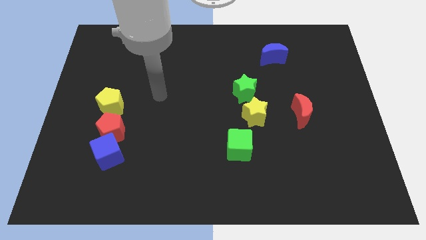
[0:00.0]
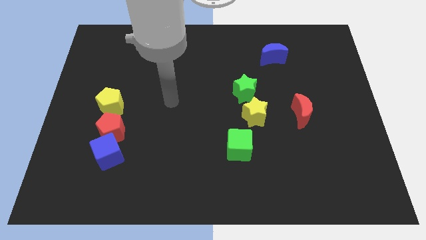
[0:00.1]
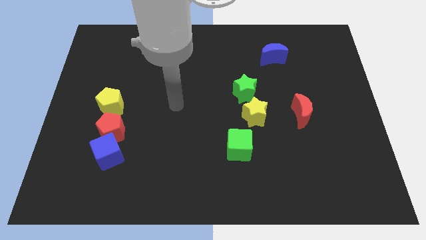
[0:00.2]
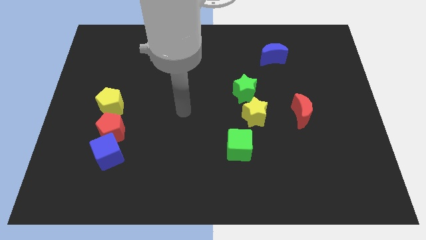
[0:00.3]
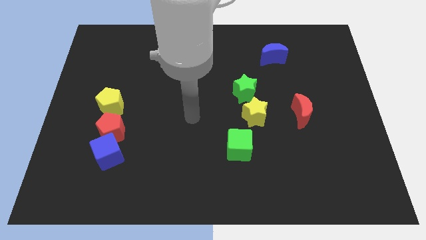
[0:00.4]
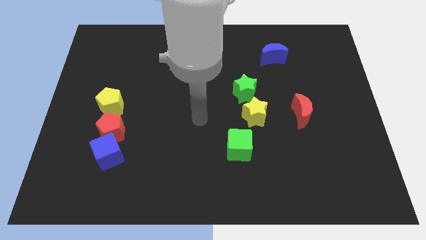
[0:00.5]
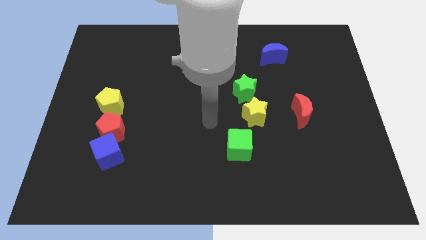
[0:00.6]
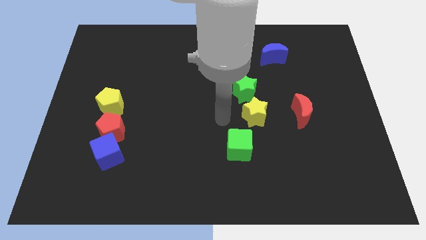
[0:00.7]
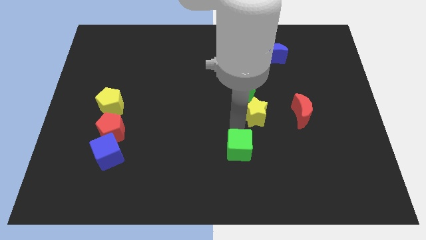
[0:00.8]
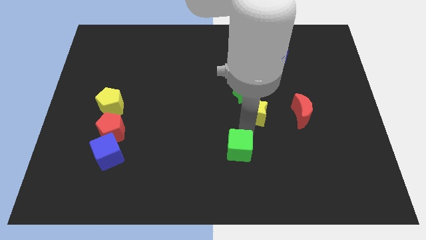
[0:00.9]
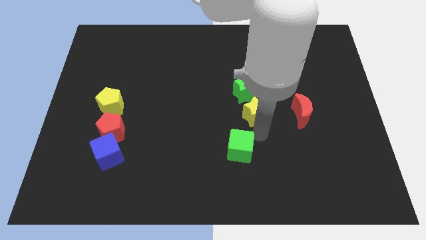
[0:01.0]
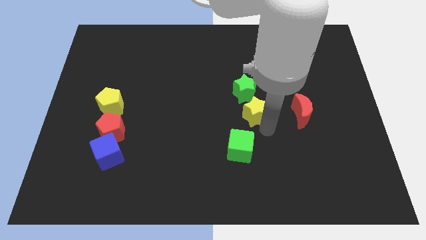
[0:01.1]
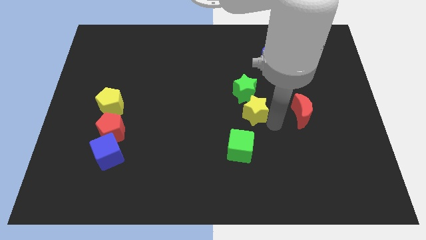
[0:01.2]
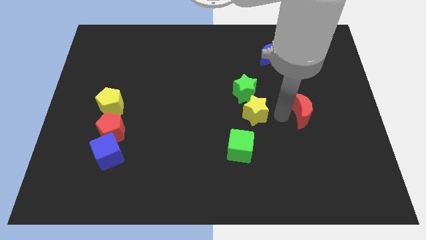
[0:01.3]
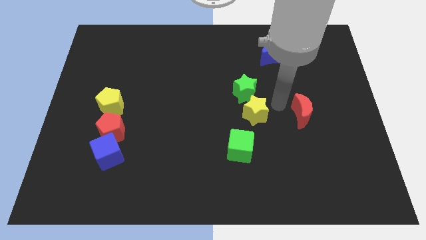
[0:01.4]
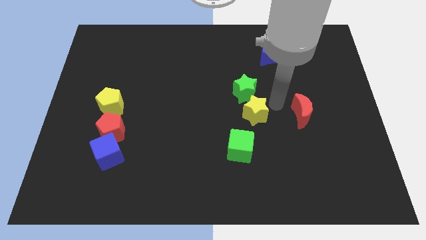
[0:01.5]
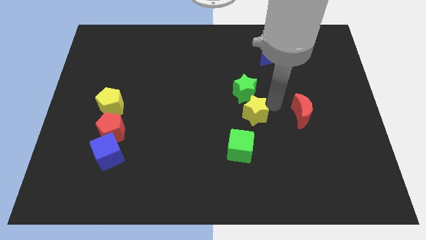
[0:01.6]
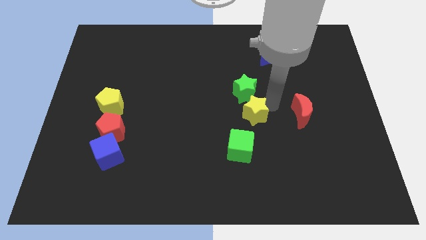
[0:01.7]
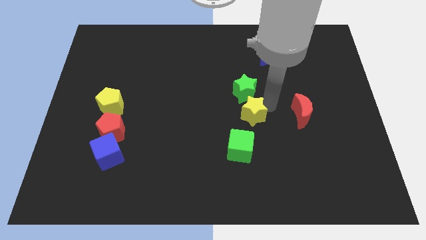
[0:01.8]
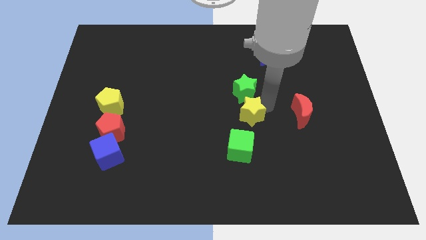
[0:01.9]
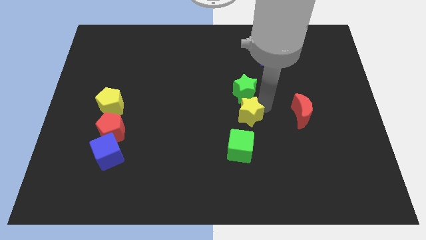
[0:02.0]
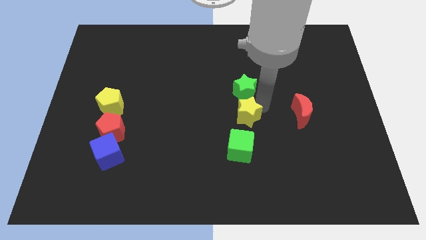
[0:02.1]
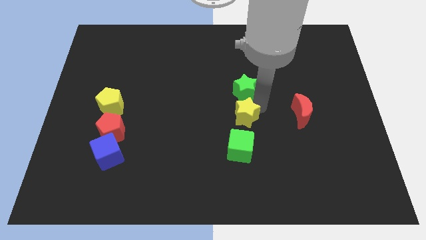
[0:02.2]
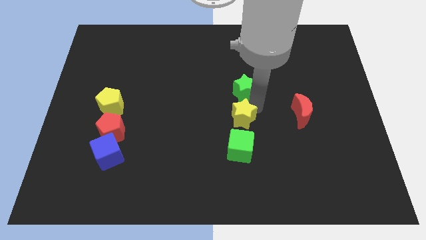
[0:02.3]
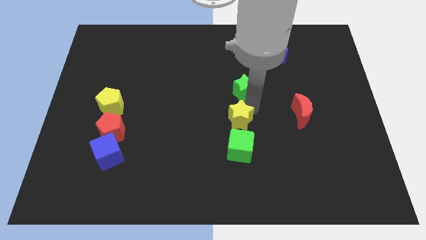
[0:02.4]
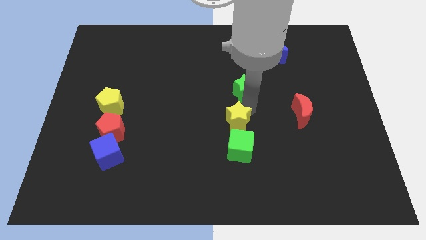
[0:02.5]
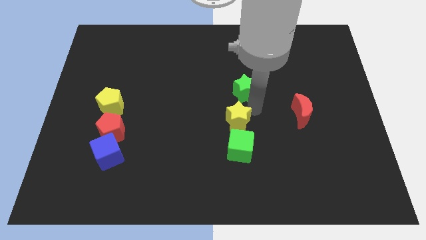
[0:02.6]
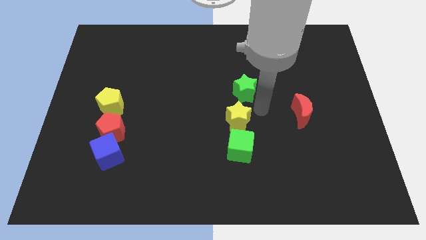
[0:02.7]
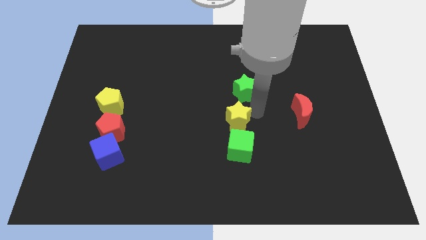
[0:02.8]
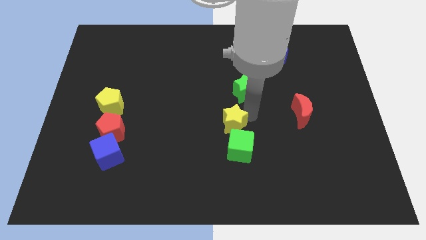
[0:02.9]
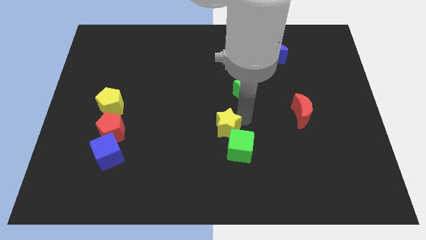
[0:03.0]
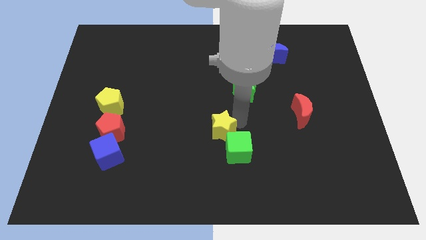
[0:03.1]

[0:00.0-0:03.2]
move the yellow star downwards and to the left diagonally a little bit

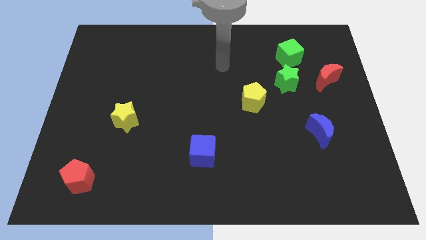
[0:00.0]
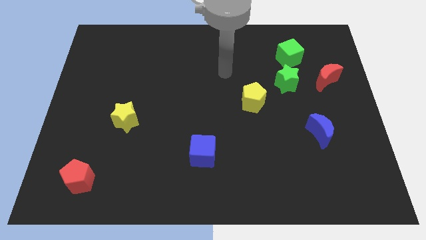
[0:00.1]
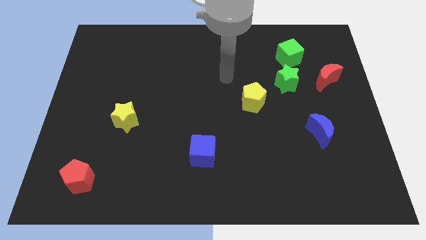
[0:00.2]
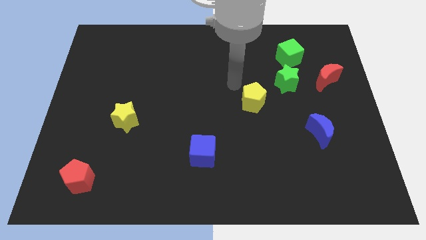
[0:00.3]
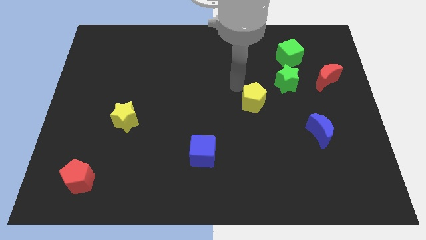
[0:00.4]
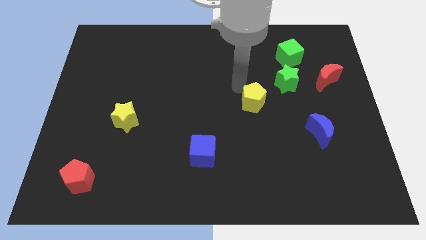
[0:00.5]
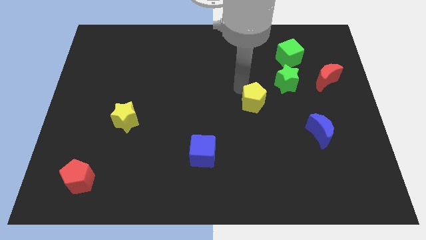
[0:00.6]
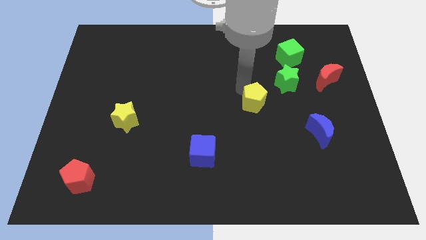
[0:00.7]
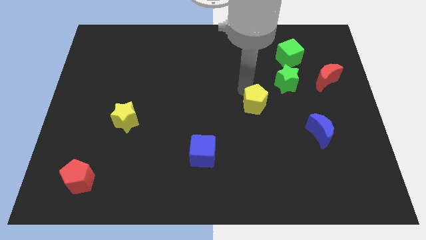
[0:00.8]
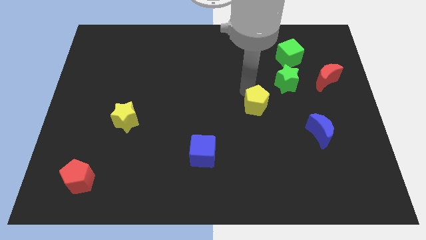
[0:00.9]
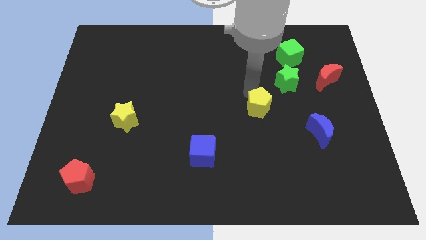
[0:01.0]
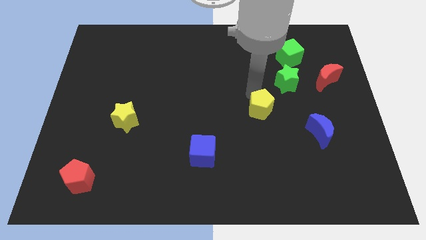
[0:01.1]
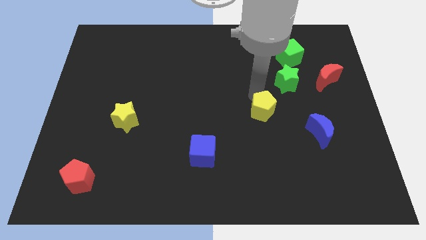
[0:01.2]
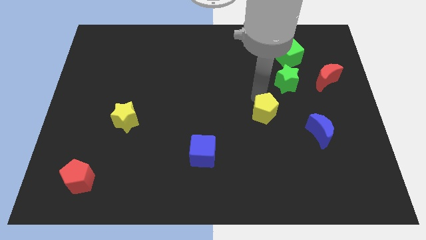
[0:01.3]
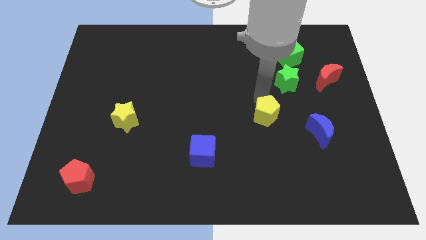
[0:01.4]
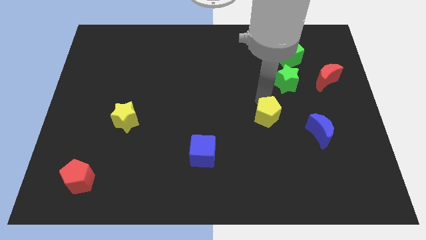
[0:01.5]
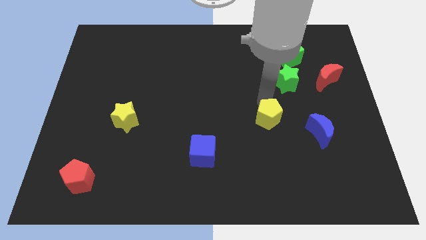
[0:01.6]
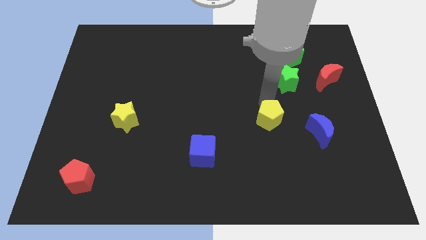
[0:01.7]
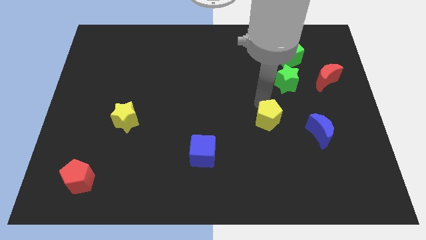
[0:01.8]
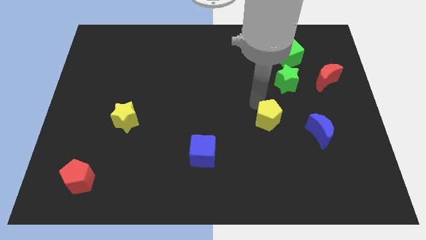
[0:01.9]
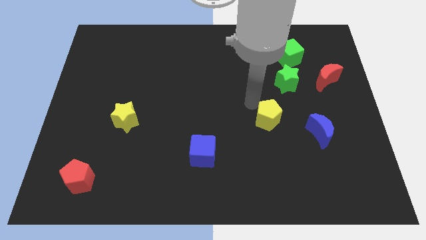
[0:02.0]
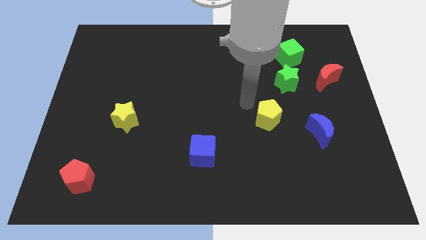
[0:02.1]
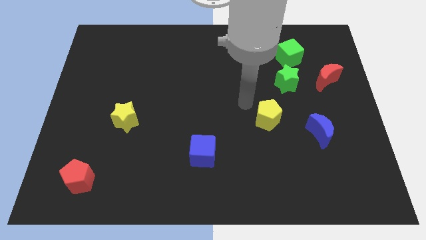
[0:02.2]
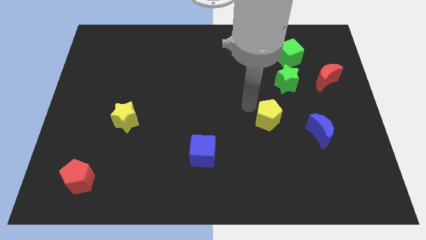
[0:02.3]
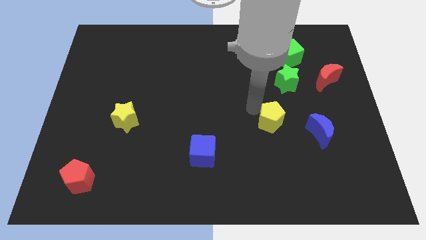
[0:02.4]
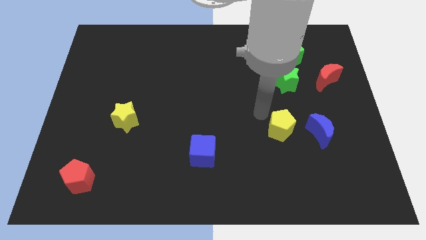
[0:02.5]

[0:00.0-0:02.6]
move the yellow pentagon slightly diagonally down and to the right

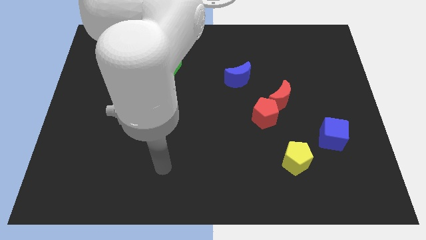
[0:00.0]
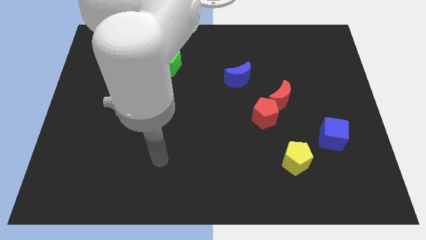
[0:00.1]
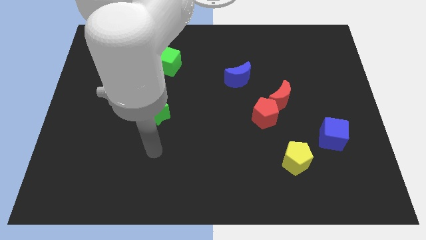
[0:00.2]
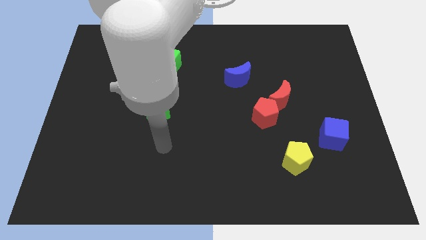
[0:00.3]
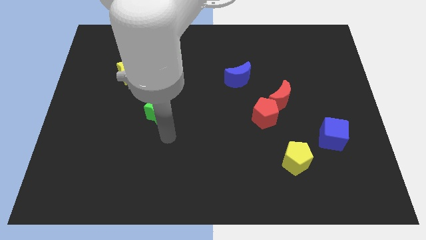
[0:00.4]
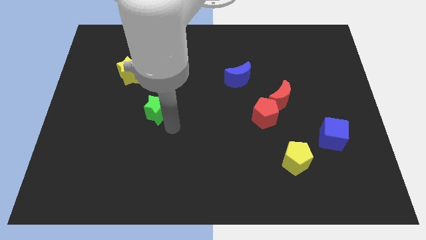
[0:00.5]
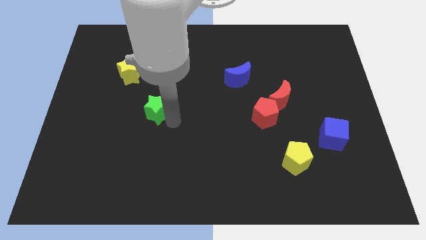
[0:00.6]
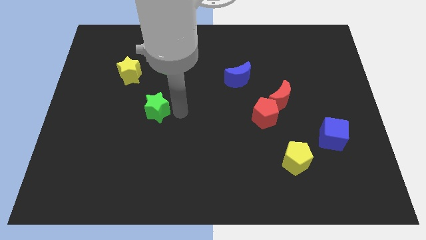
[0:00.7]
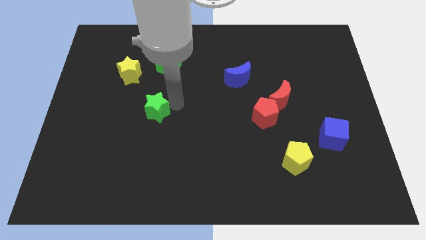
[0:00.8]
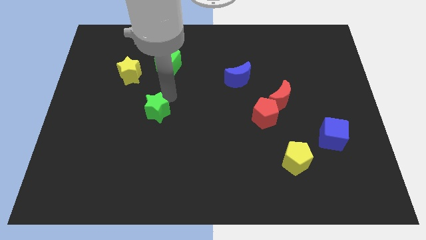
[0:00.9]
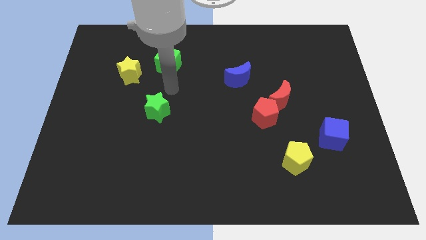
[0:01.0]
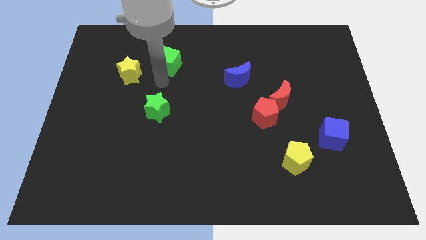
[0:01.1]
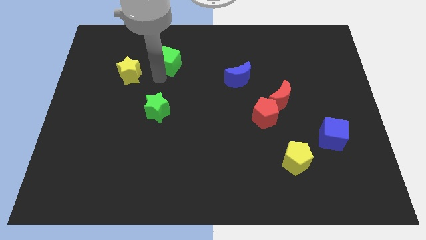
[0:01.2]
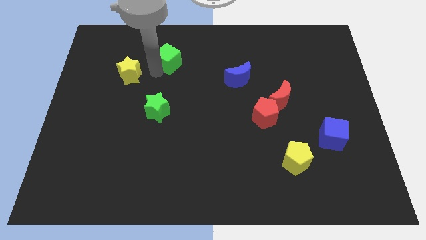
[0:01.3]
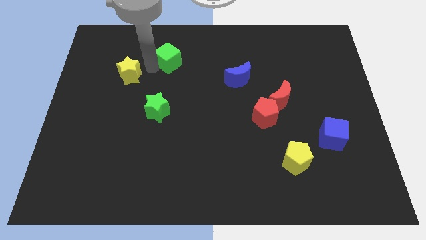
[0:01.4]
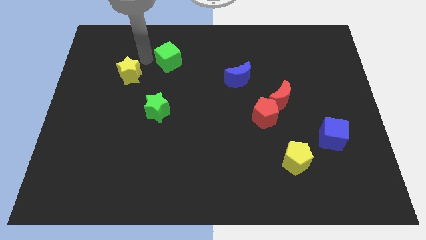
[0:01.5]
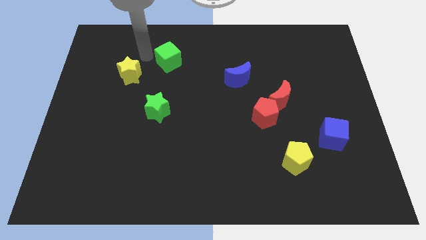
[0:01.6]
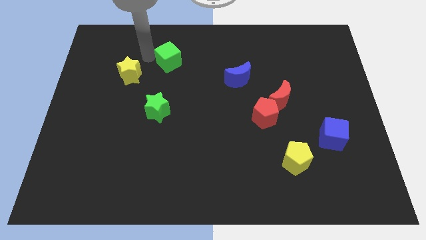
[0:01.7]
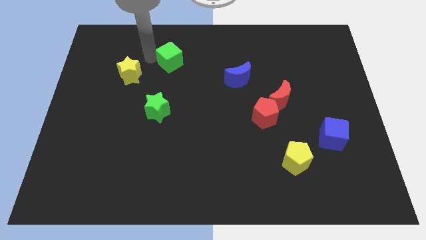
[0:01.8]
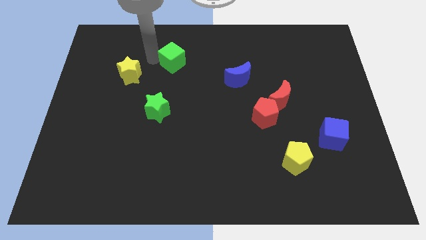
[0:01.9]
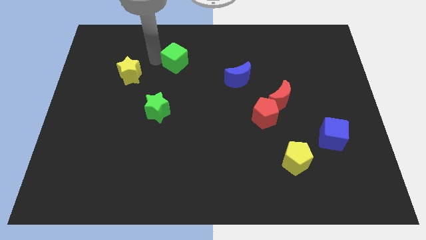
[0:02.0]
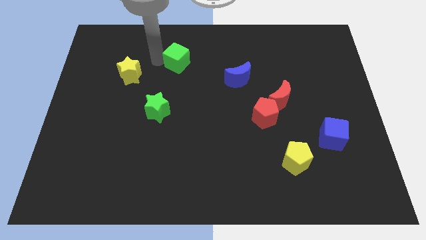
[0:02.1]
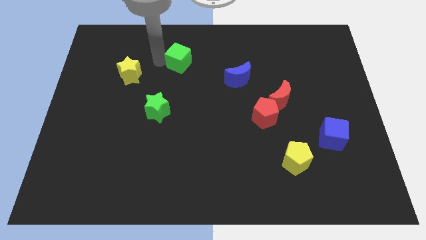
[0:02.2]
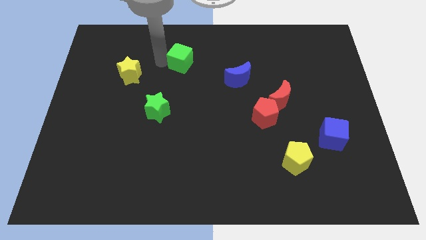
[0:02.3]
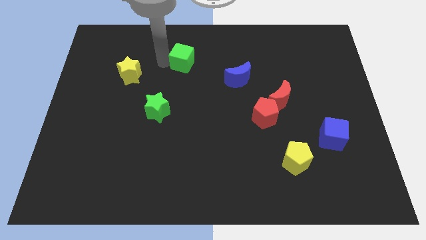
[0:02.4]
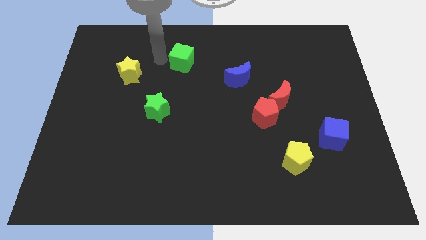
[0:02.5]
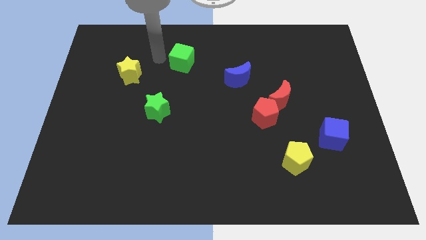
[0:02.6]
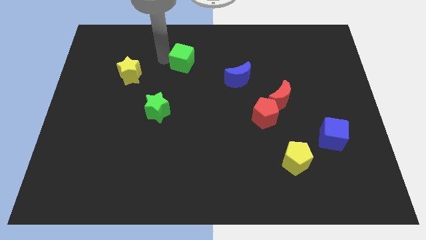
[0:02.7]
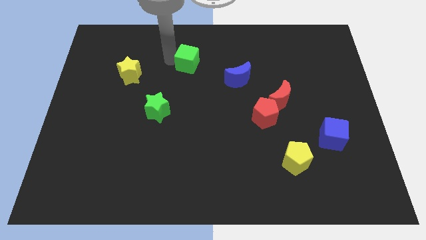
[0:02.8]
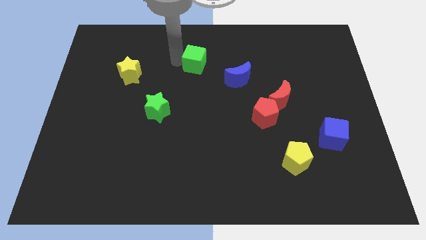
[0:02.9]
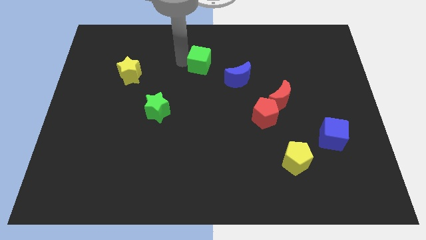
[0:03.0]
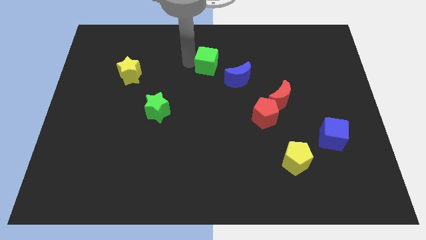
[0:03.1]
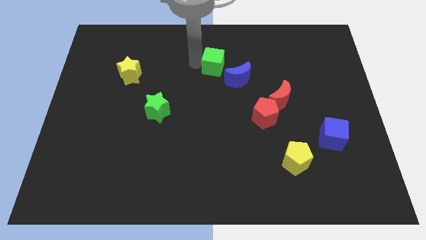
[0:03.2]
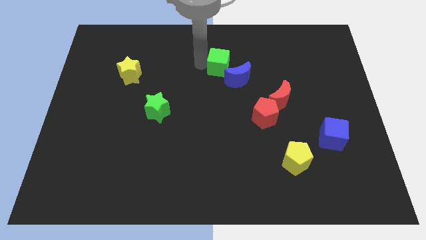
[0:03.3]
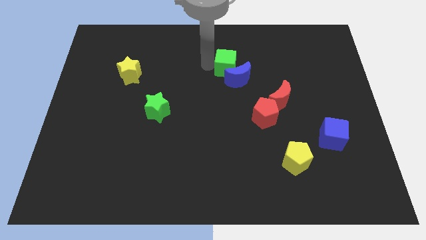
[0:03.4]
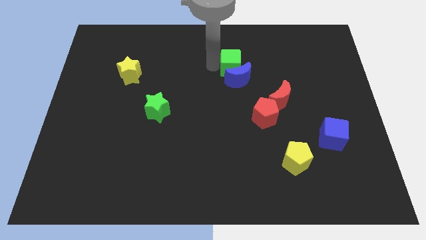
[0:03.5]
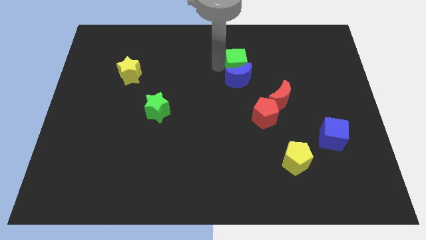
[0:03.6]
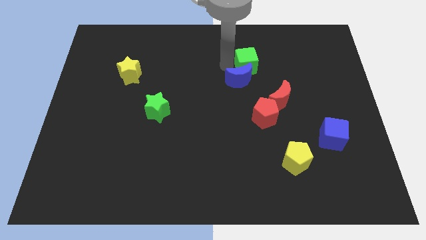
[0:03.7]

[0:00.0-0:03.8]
slide the green cube right
